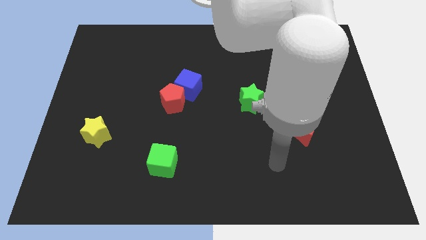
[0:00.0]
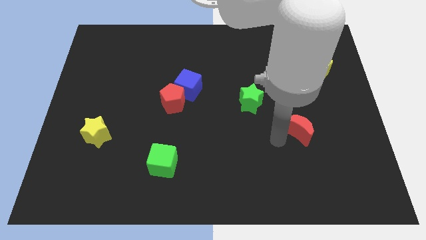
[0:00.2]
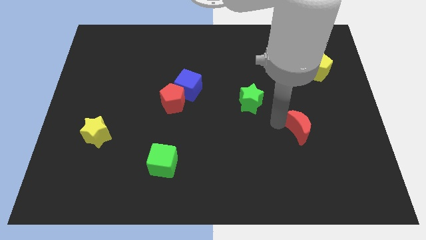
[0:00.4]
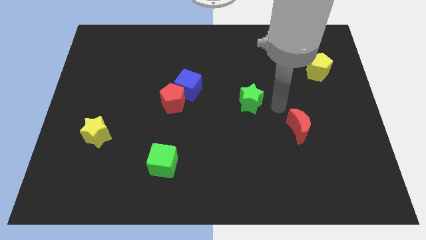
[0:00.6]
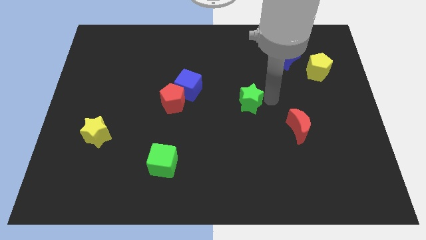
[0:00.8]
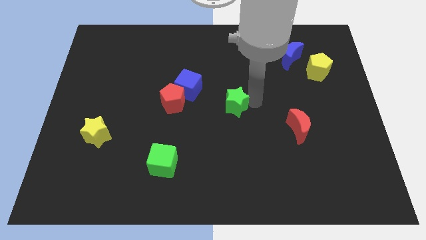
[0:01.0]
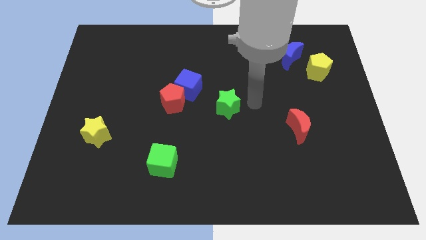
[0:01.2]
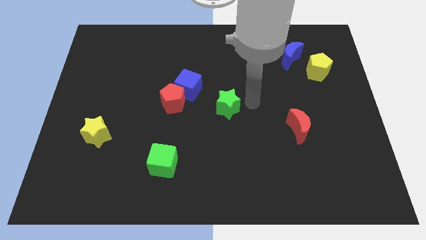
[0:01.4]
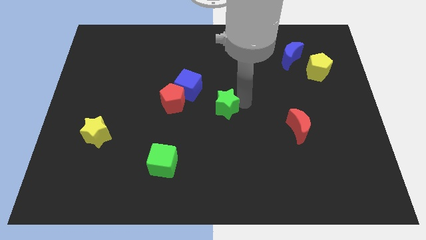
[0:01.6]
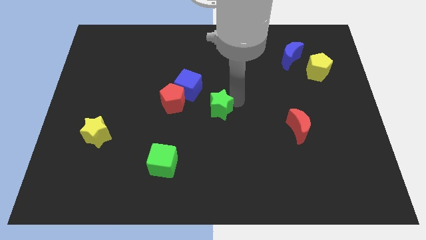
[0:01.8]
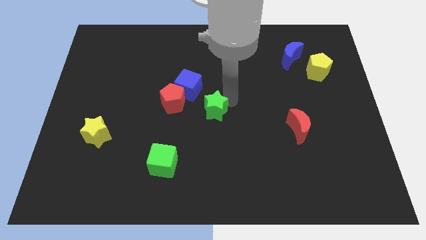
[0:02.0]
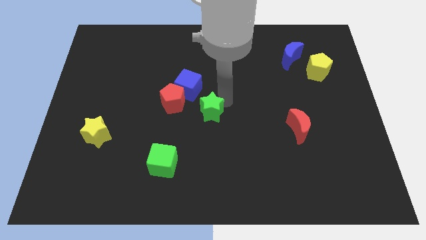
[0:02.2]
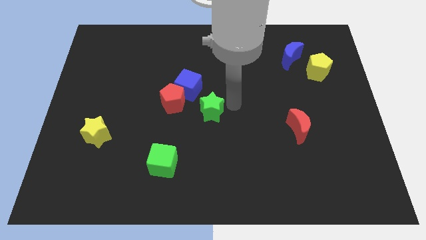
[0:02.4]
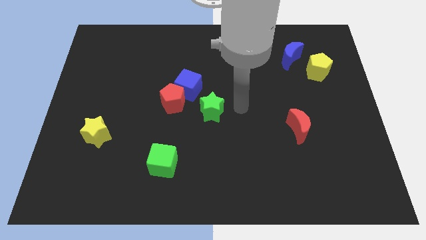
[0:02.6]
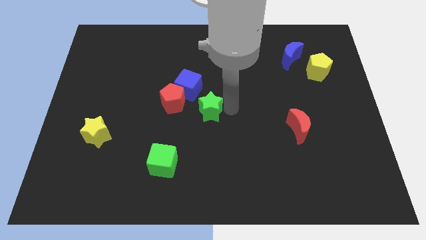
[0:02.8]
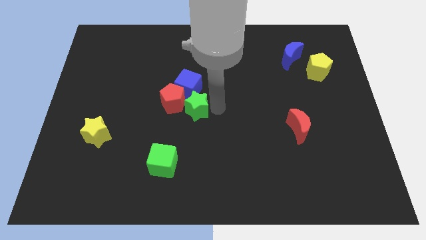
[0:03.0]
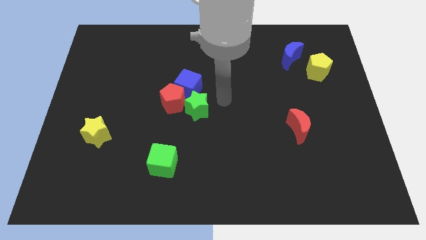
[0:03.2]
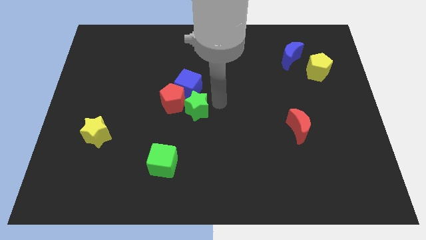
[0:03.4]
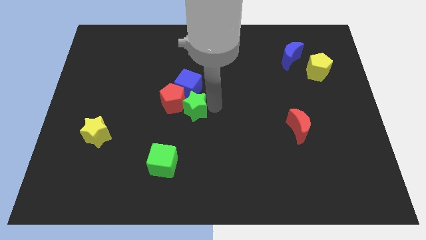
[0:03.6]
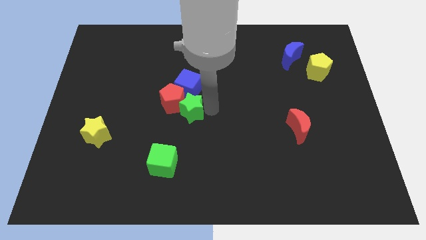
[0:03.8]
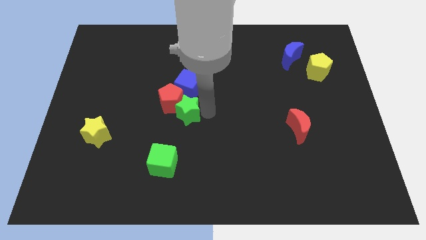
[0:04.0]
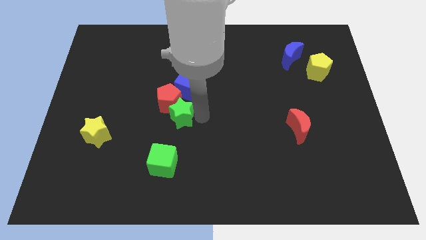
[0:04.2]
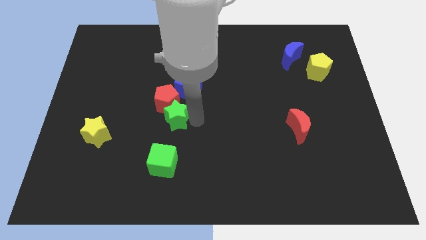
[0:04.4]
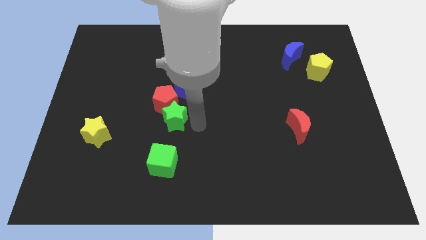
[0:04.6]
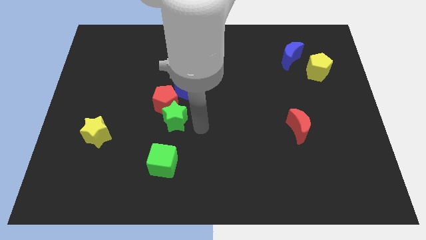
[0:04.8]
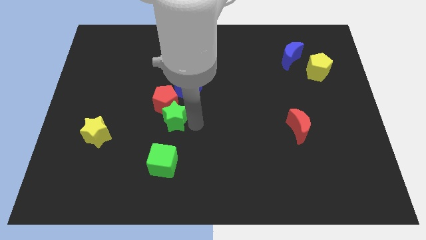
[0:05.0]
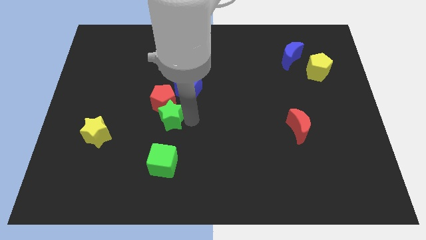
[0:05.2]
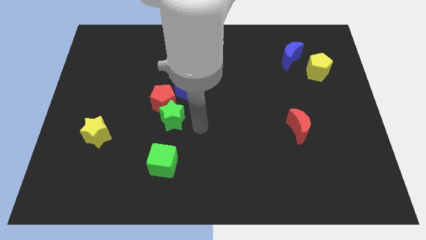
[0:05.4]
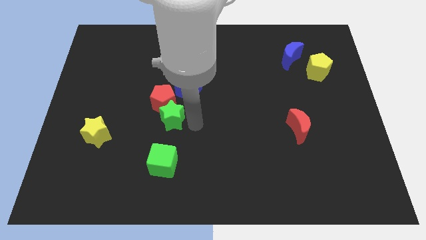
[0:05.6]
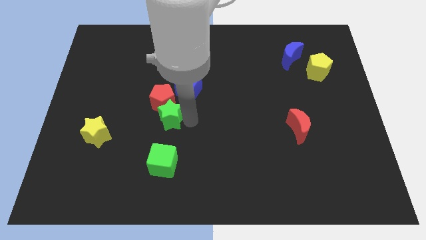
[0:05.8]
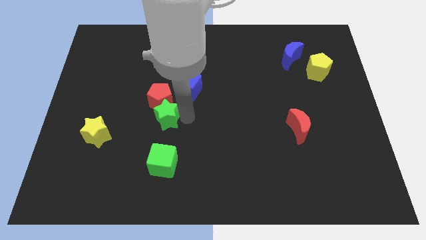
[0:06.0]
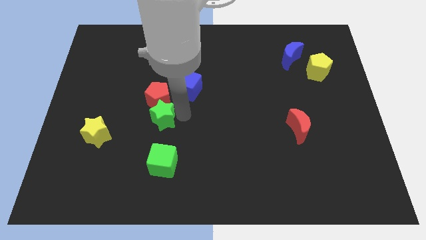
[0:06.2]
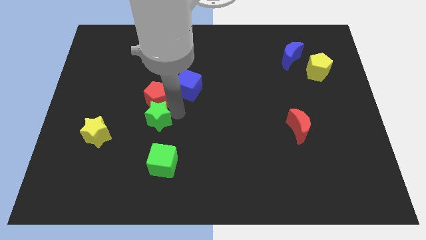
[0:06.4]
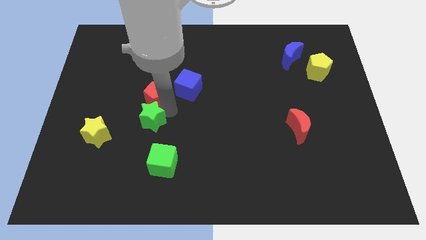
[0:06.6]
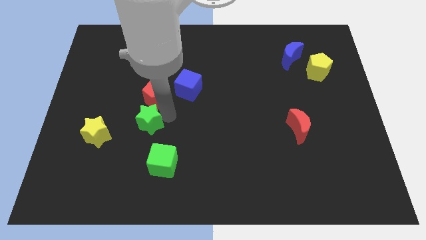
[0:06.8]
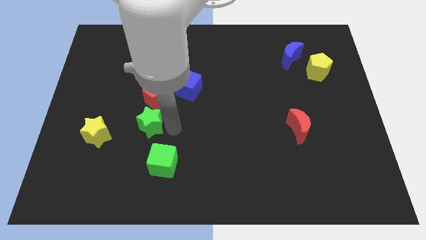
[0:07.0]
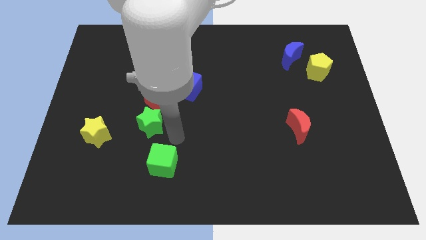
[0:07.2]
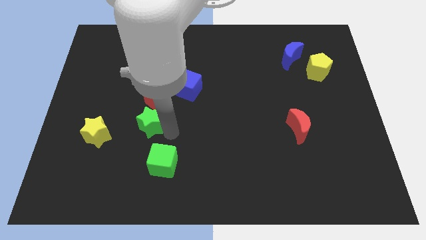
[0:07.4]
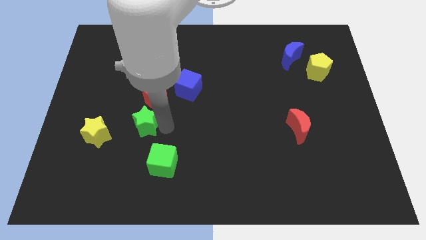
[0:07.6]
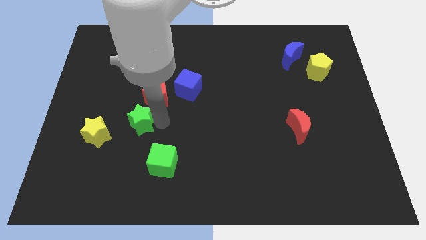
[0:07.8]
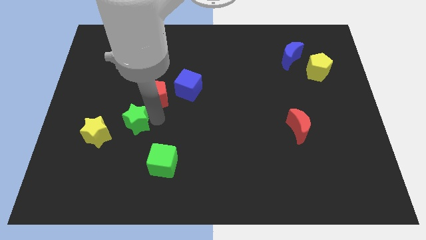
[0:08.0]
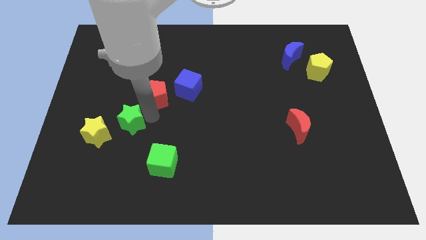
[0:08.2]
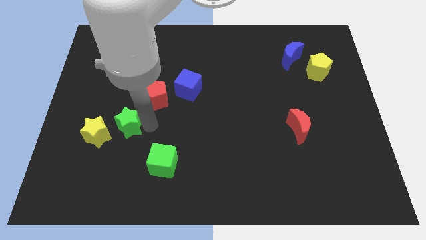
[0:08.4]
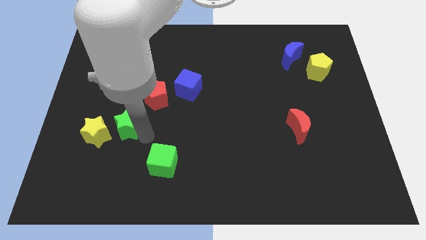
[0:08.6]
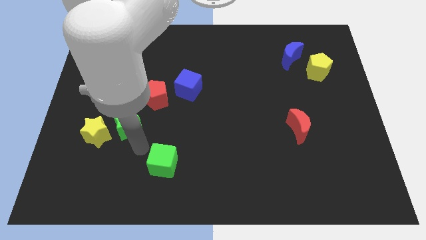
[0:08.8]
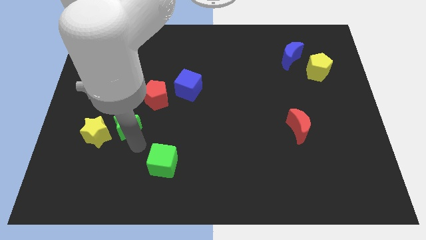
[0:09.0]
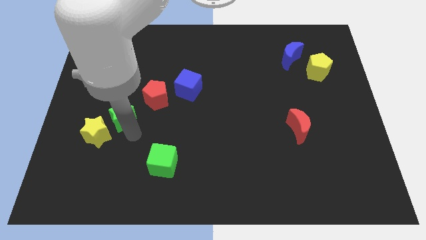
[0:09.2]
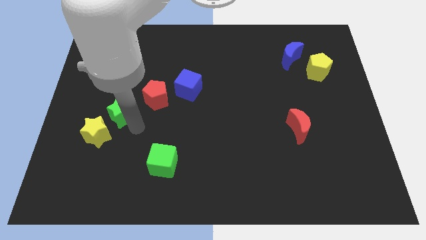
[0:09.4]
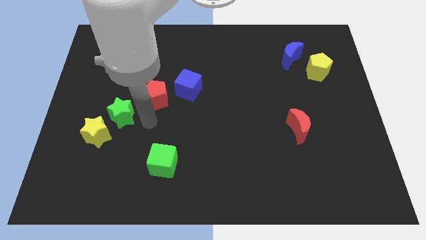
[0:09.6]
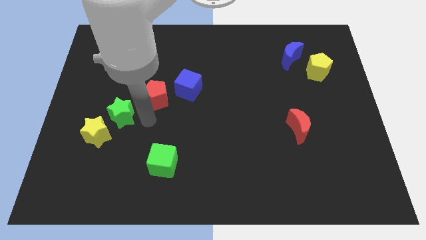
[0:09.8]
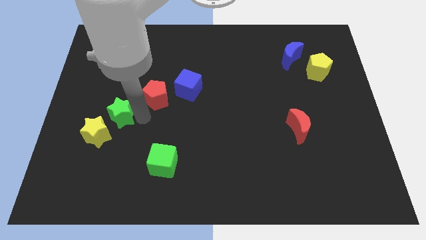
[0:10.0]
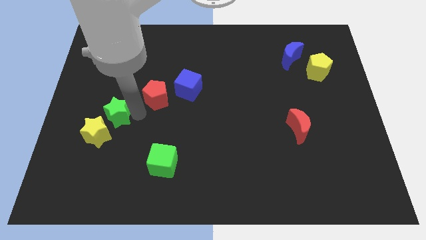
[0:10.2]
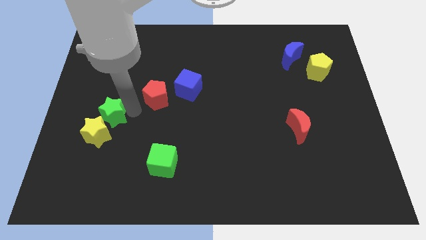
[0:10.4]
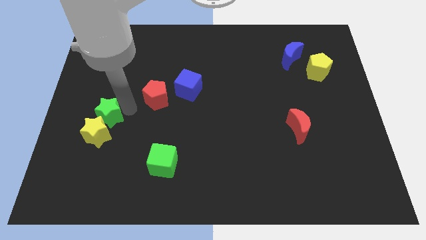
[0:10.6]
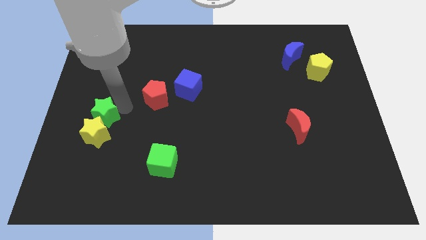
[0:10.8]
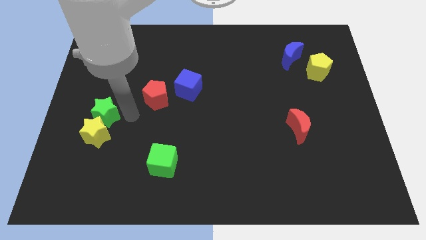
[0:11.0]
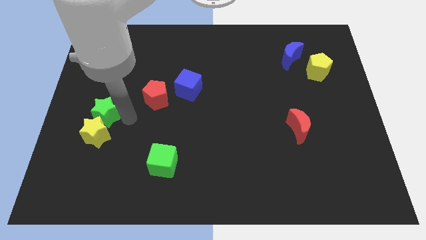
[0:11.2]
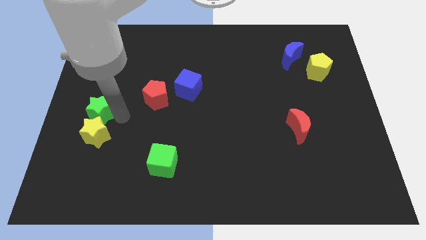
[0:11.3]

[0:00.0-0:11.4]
slide the green star to the left side

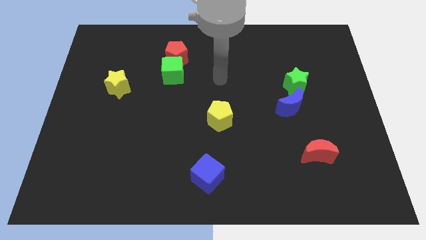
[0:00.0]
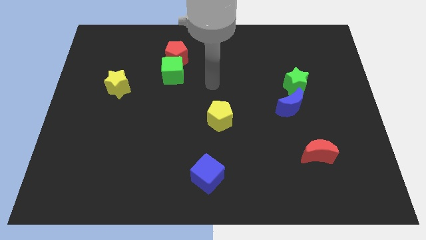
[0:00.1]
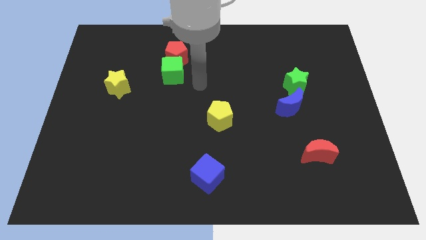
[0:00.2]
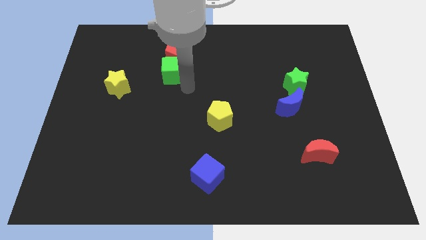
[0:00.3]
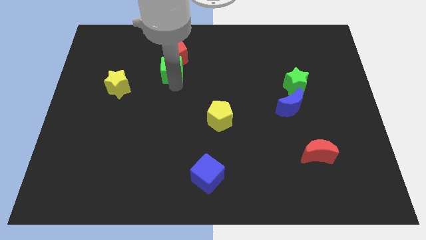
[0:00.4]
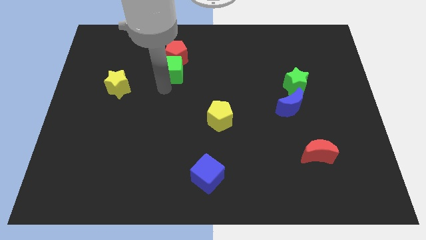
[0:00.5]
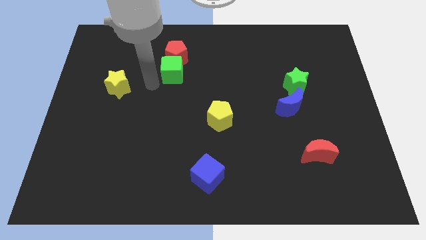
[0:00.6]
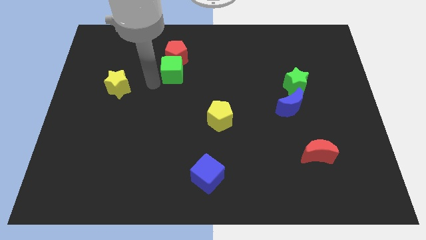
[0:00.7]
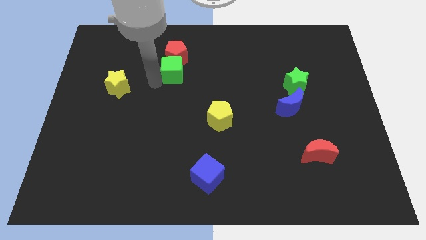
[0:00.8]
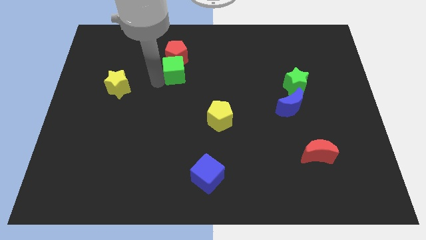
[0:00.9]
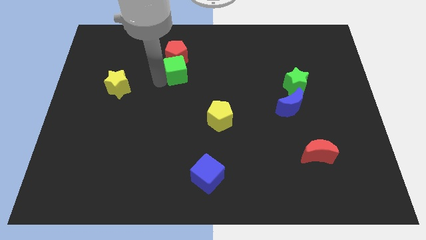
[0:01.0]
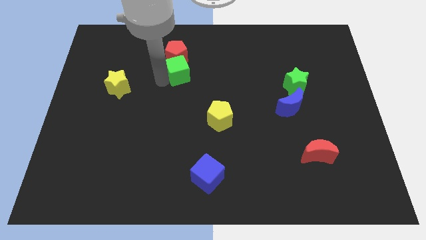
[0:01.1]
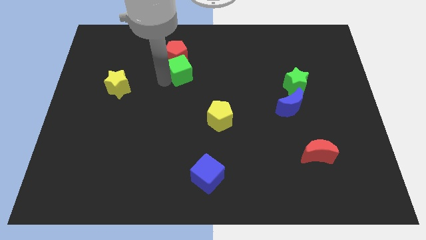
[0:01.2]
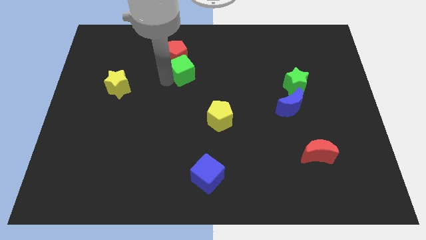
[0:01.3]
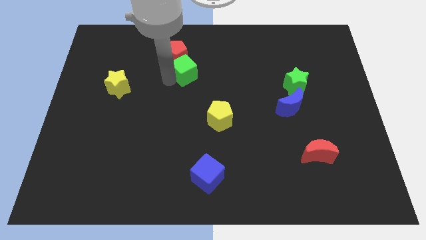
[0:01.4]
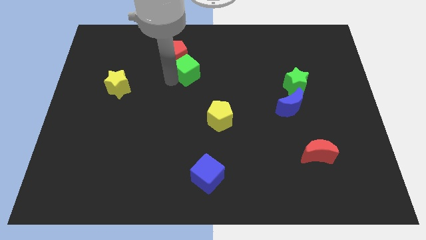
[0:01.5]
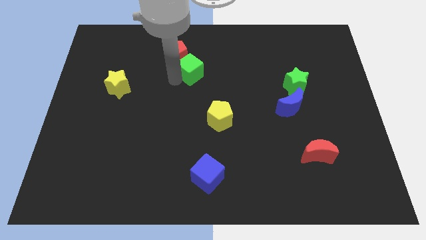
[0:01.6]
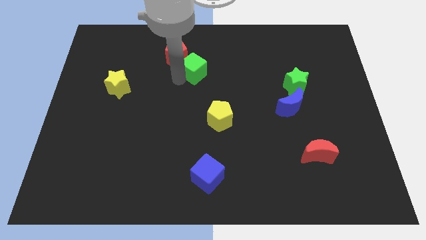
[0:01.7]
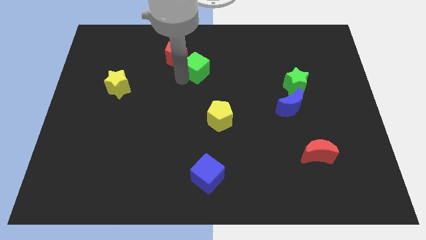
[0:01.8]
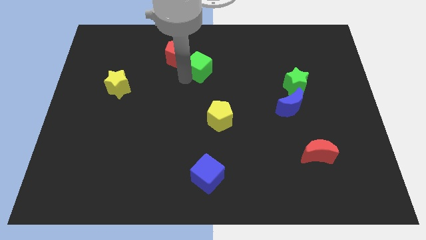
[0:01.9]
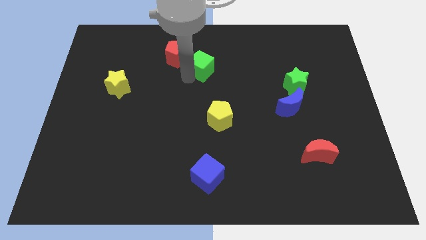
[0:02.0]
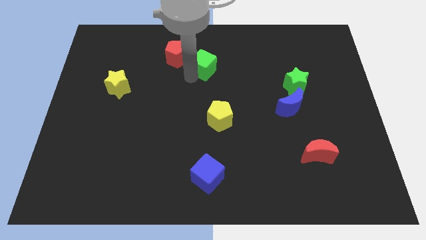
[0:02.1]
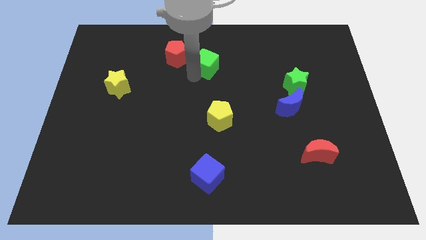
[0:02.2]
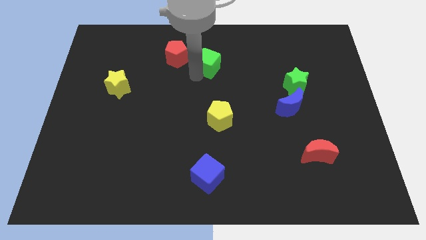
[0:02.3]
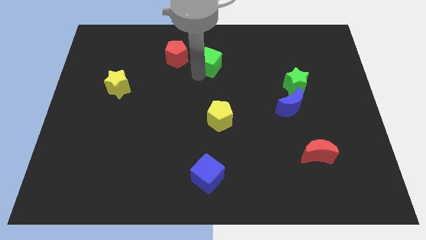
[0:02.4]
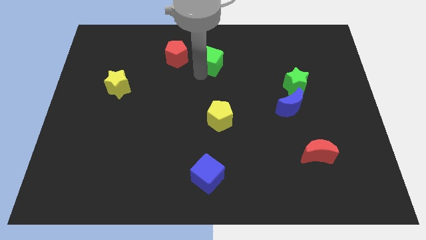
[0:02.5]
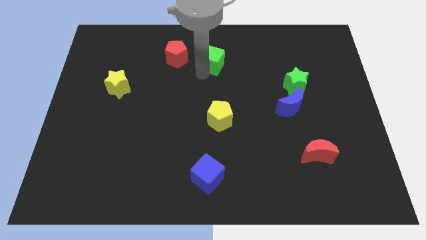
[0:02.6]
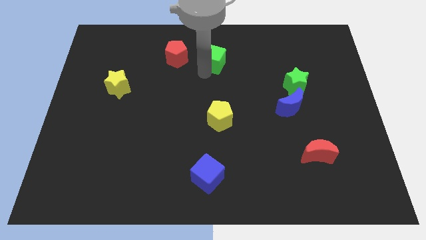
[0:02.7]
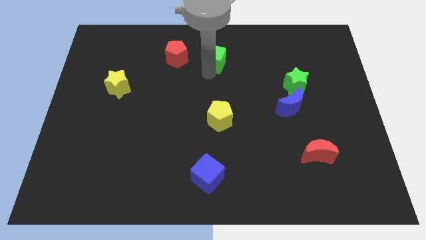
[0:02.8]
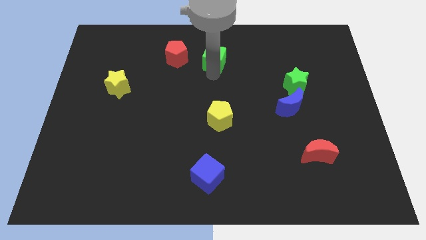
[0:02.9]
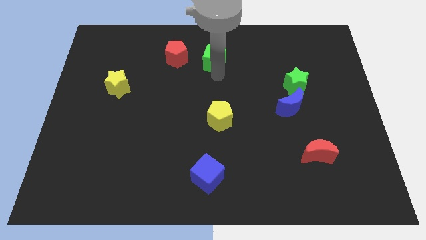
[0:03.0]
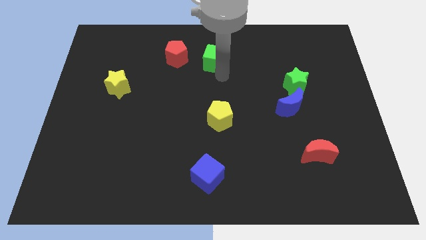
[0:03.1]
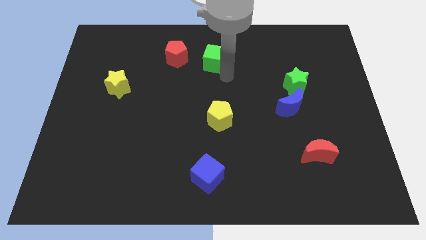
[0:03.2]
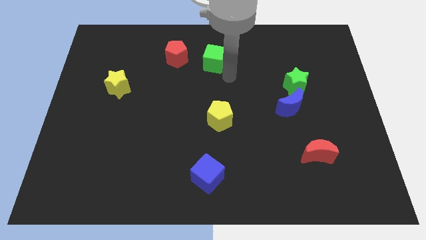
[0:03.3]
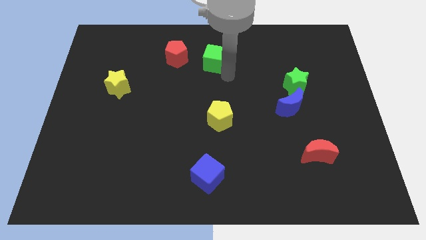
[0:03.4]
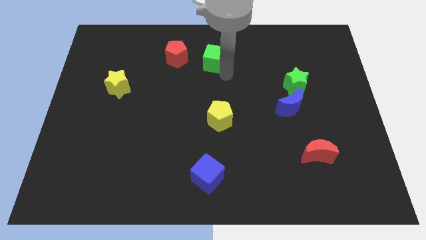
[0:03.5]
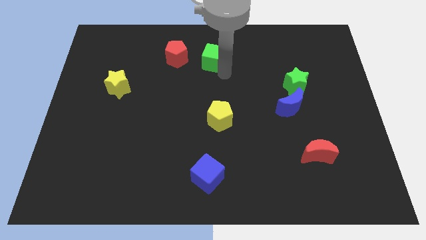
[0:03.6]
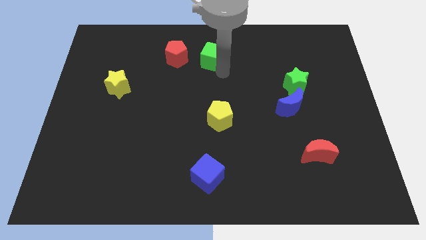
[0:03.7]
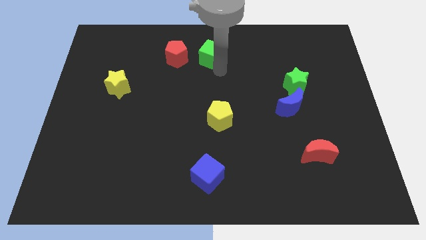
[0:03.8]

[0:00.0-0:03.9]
push the green cube to the towards your base
